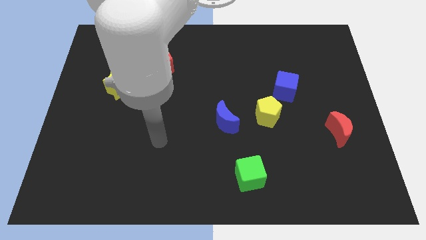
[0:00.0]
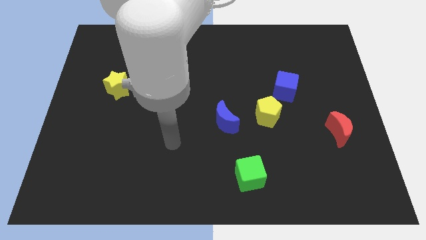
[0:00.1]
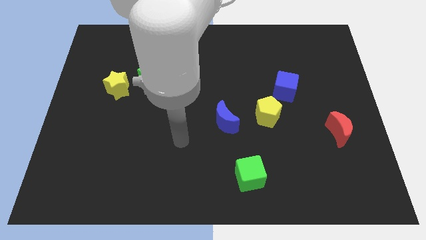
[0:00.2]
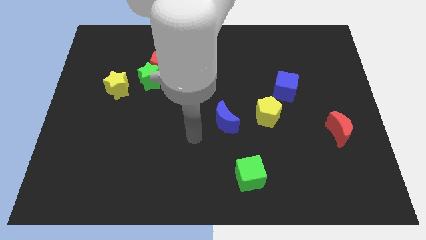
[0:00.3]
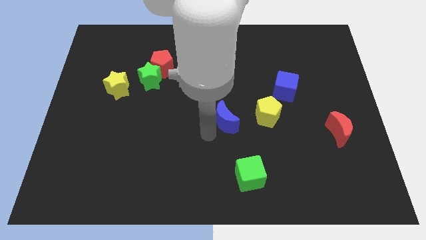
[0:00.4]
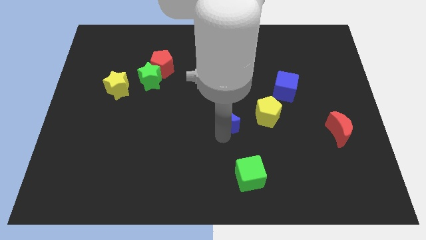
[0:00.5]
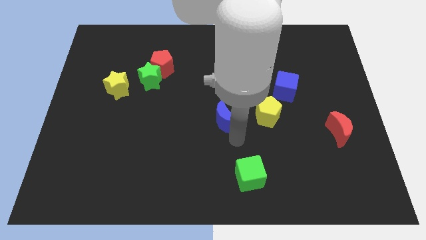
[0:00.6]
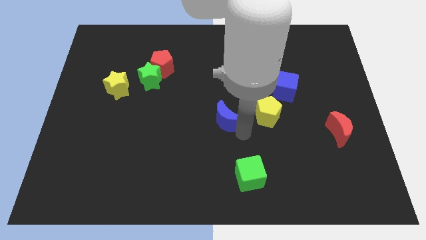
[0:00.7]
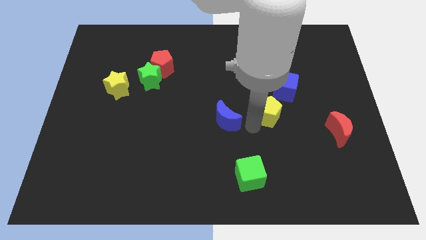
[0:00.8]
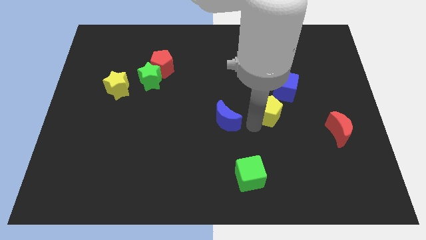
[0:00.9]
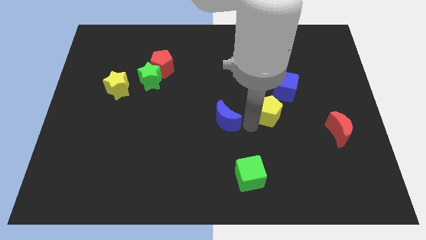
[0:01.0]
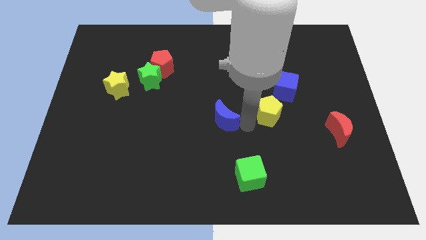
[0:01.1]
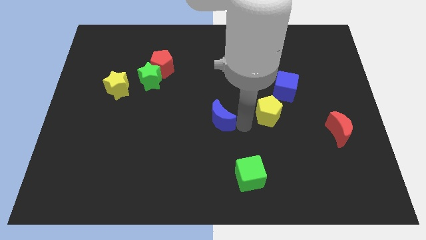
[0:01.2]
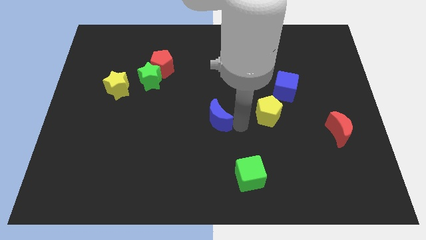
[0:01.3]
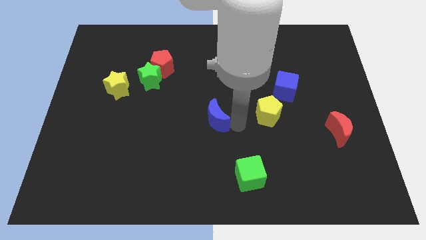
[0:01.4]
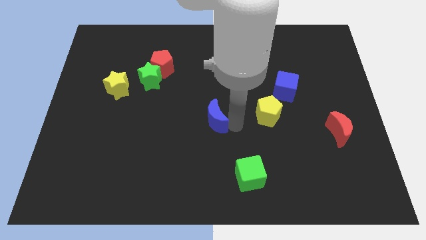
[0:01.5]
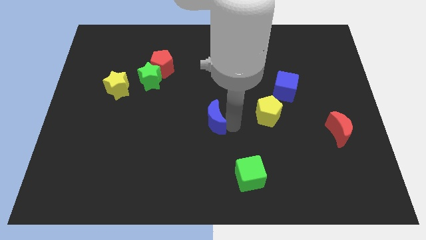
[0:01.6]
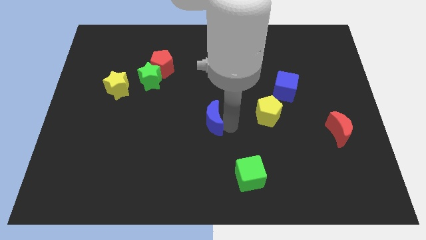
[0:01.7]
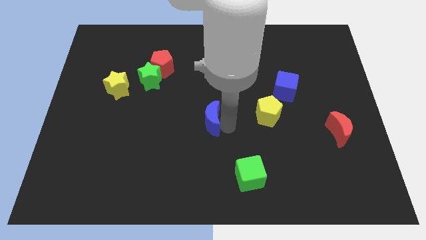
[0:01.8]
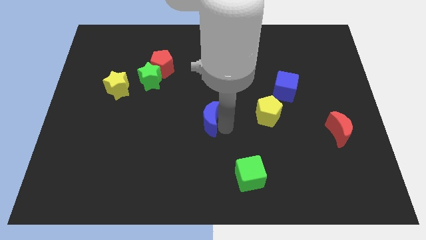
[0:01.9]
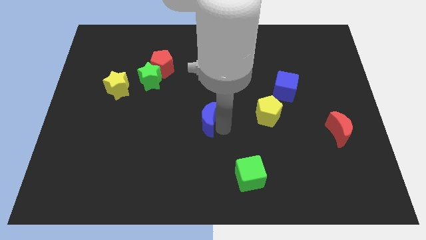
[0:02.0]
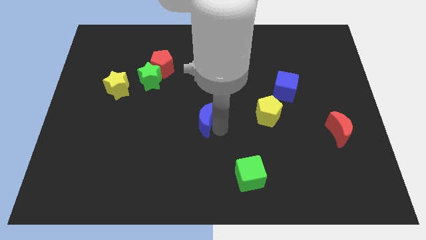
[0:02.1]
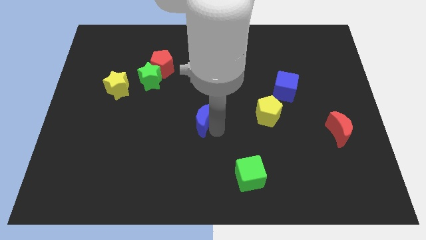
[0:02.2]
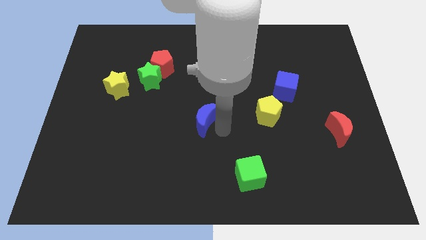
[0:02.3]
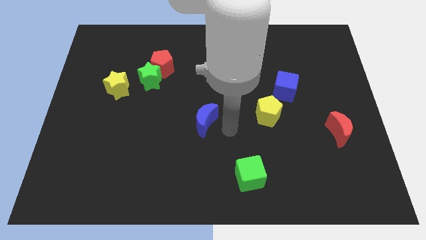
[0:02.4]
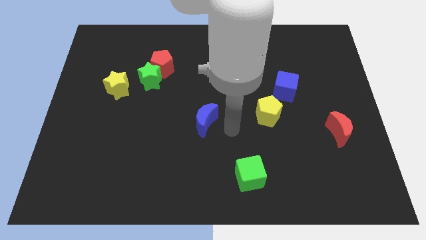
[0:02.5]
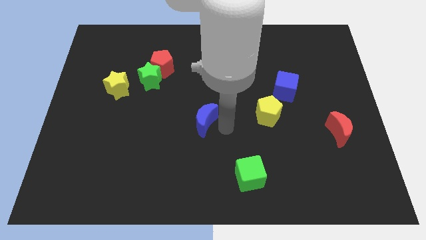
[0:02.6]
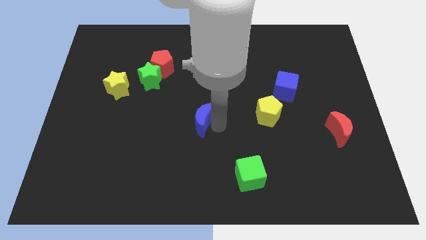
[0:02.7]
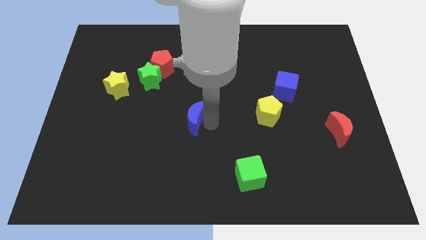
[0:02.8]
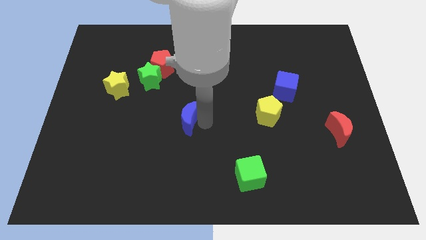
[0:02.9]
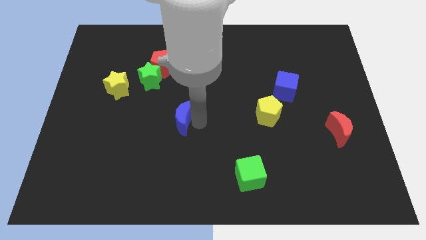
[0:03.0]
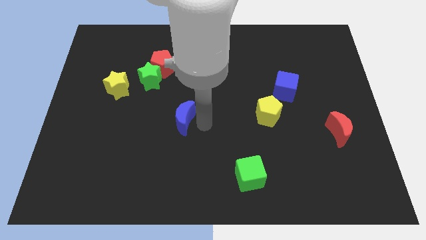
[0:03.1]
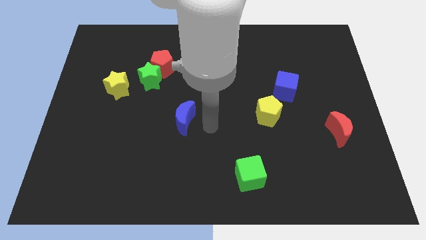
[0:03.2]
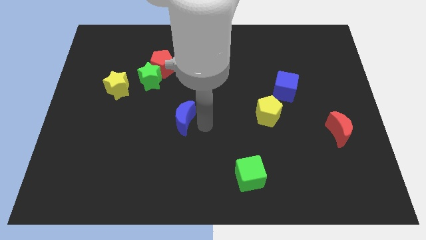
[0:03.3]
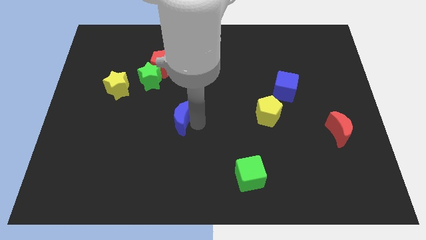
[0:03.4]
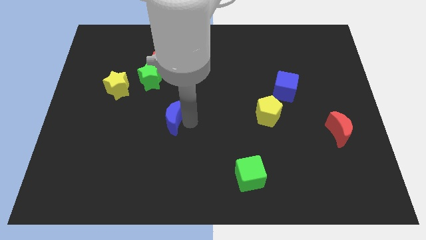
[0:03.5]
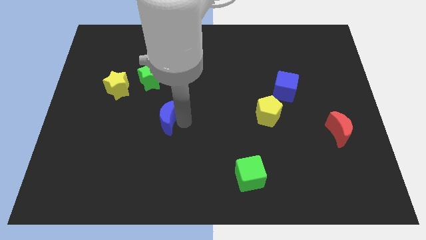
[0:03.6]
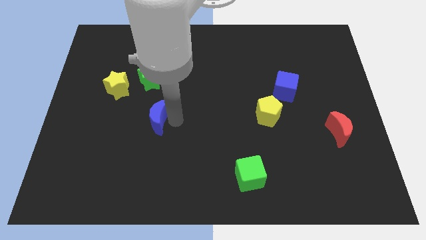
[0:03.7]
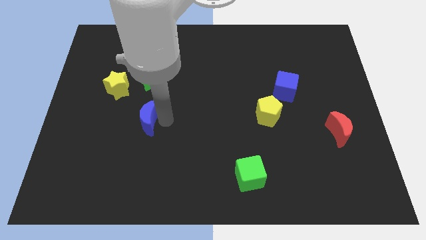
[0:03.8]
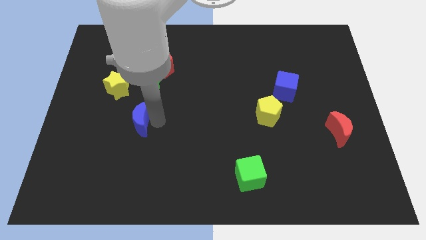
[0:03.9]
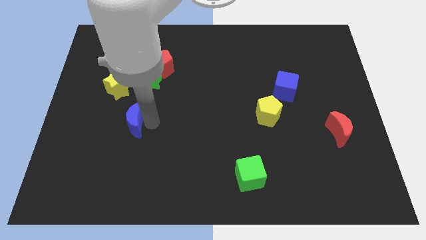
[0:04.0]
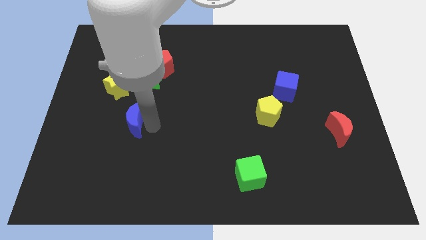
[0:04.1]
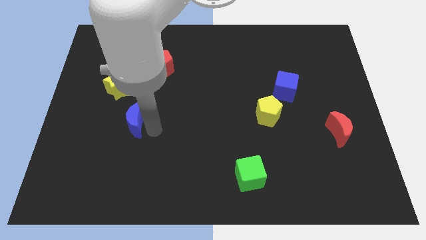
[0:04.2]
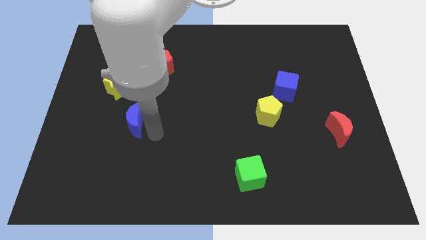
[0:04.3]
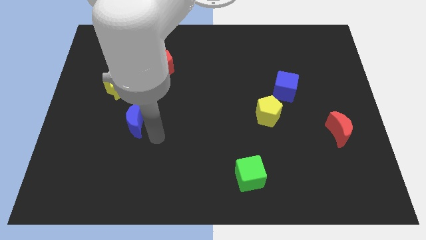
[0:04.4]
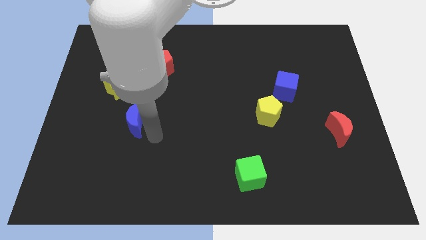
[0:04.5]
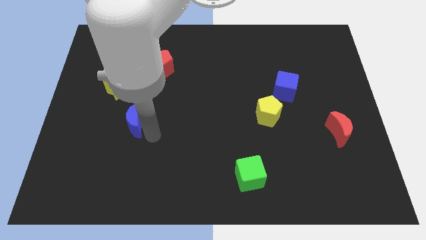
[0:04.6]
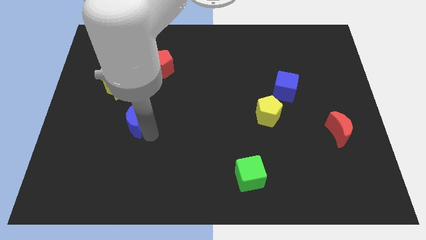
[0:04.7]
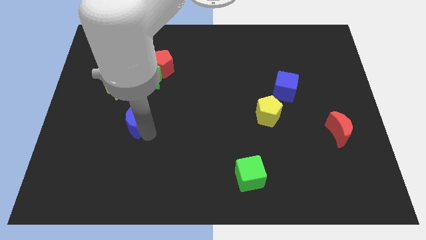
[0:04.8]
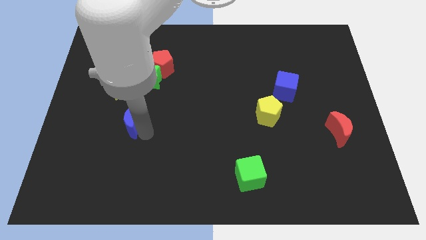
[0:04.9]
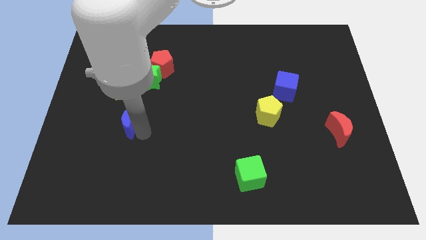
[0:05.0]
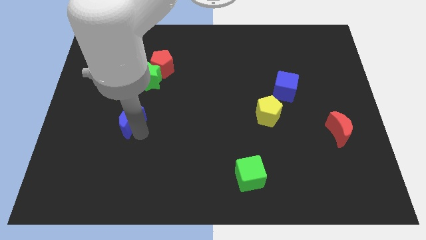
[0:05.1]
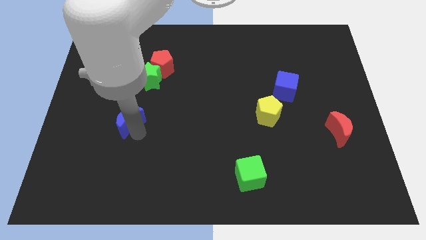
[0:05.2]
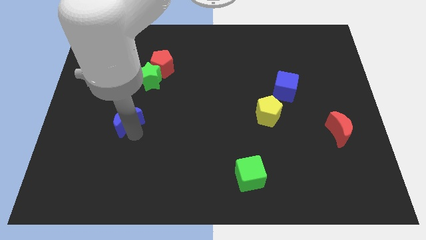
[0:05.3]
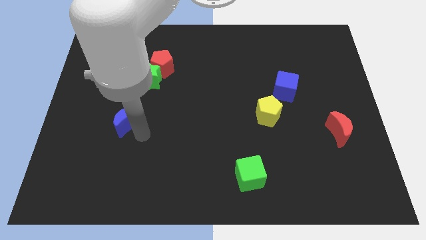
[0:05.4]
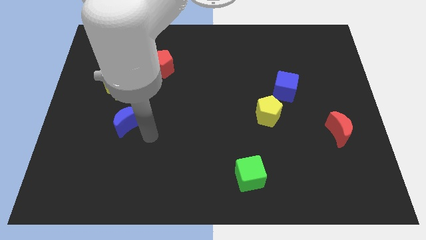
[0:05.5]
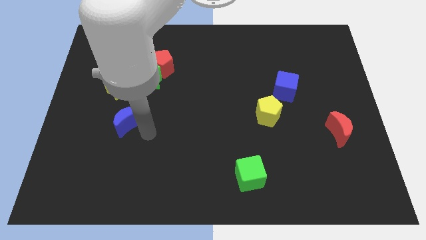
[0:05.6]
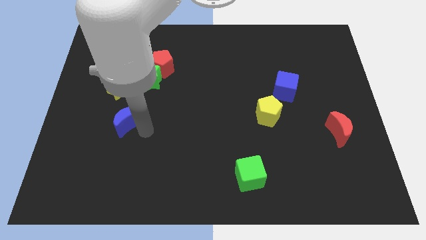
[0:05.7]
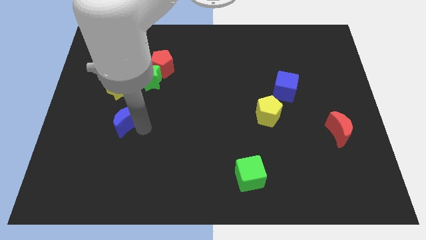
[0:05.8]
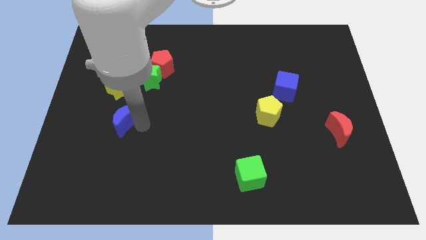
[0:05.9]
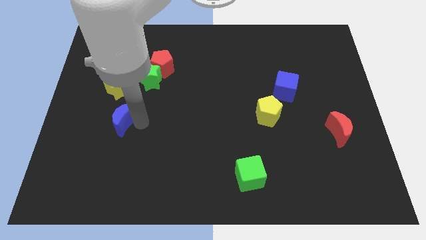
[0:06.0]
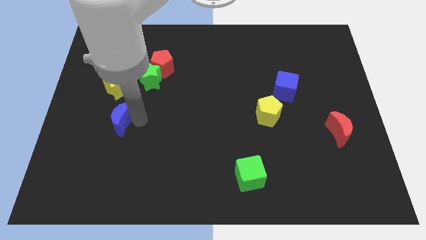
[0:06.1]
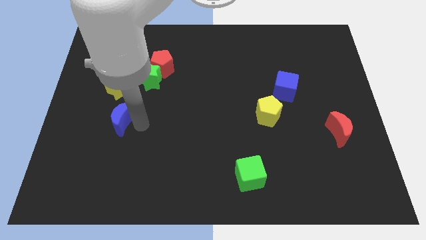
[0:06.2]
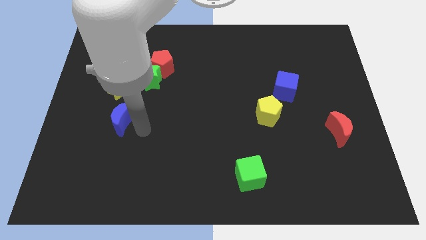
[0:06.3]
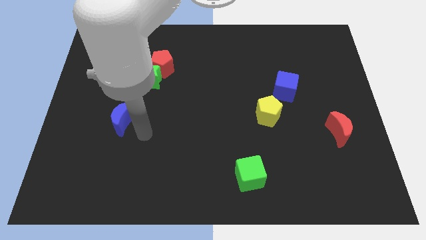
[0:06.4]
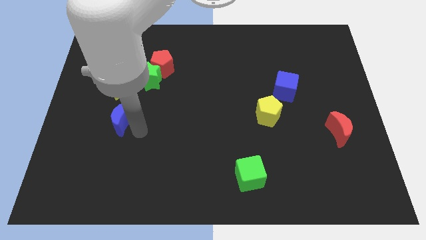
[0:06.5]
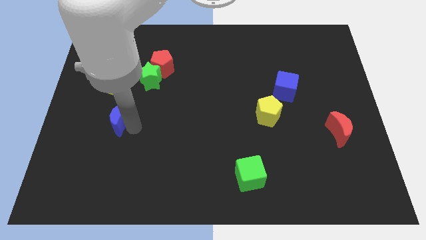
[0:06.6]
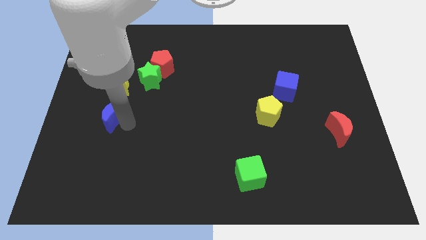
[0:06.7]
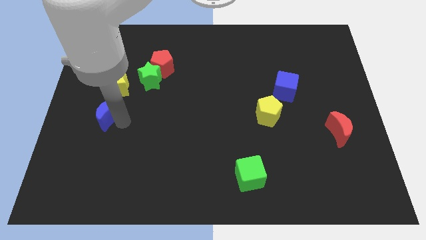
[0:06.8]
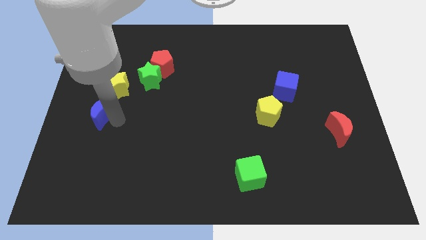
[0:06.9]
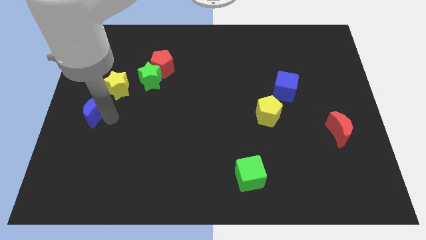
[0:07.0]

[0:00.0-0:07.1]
move the blue moon to the left side of the board
